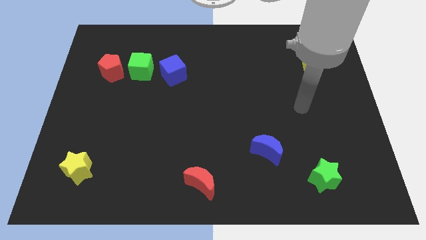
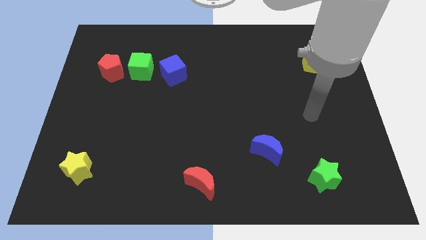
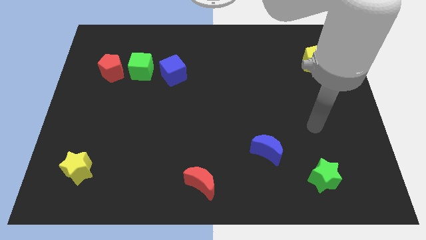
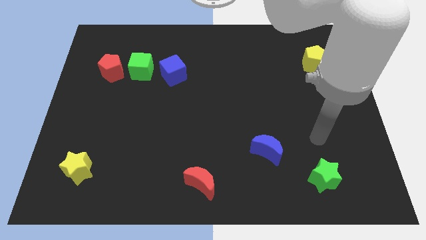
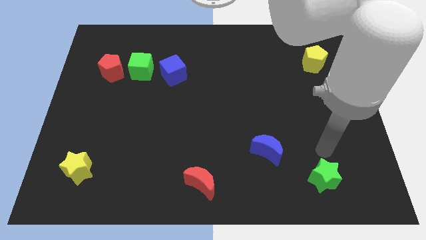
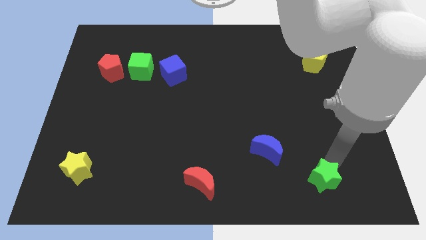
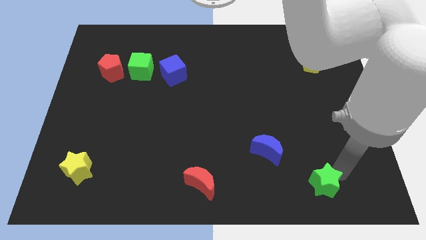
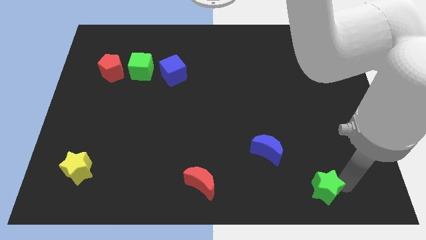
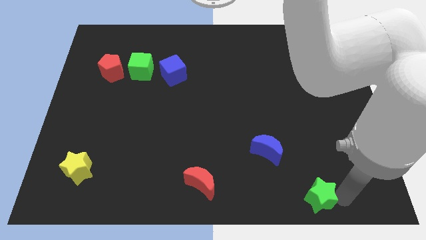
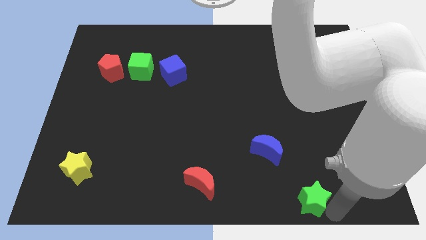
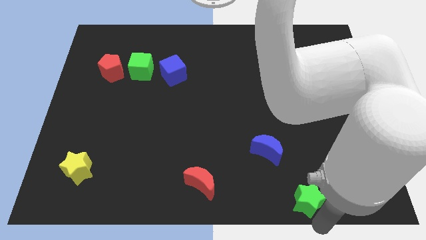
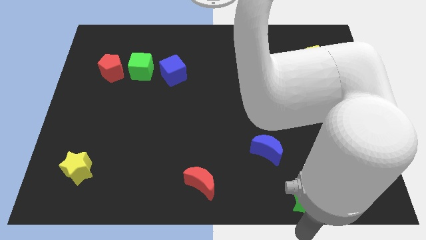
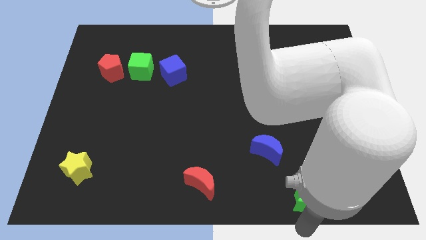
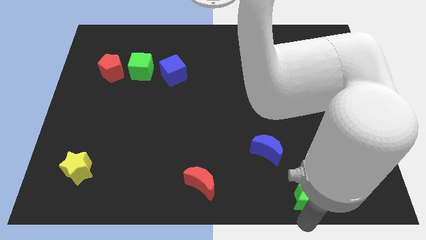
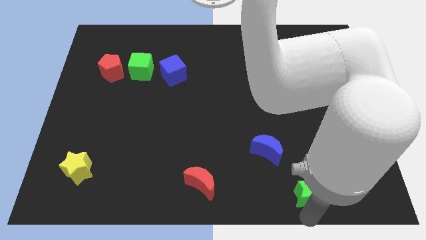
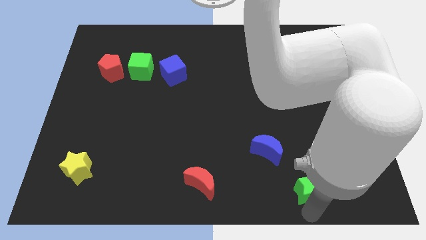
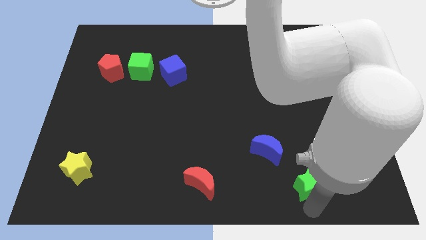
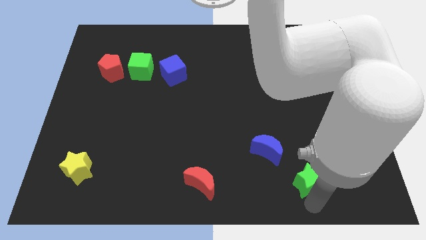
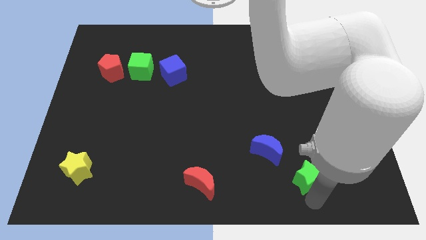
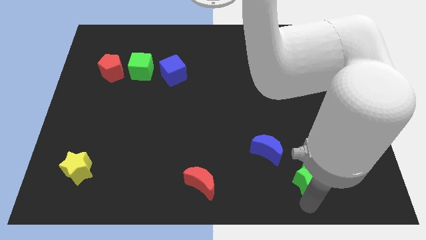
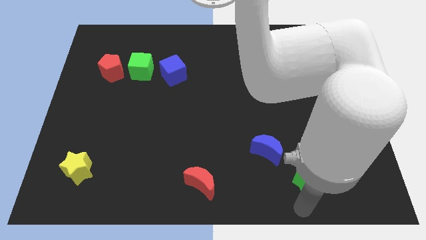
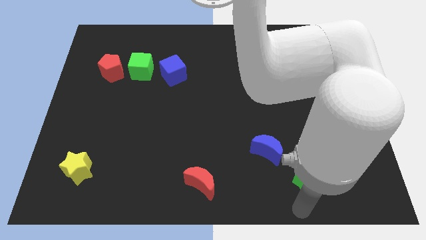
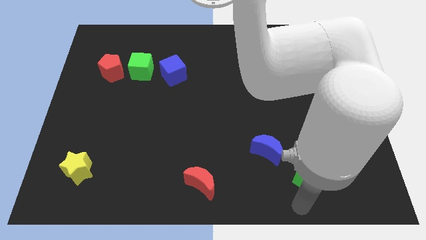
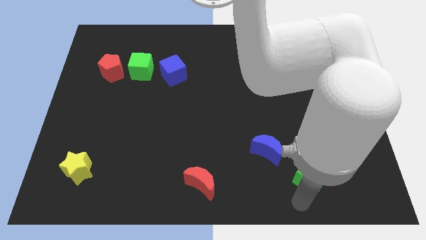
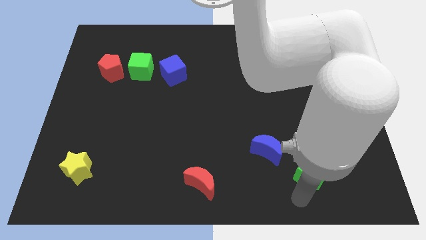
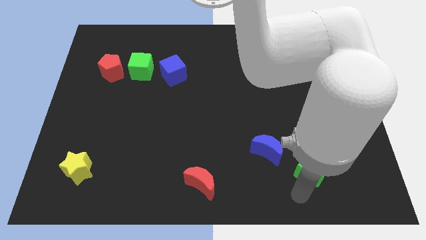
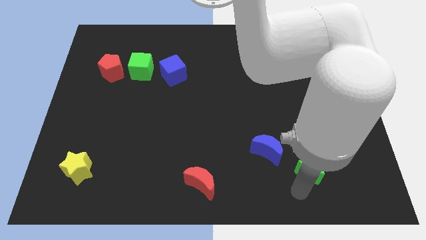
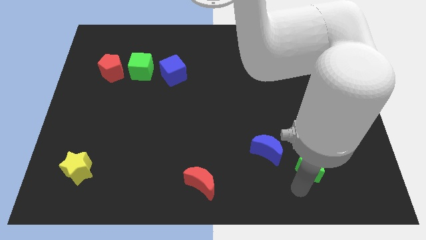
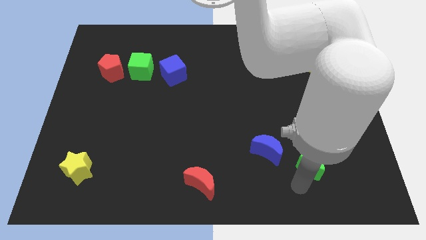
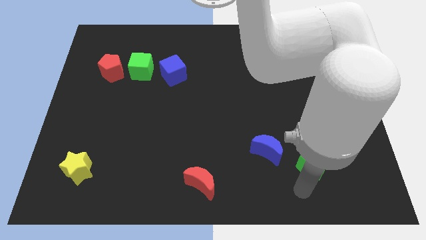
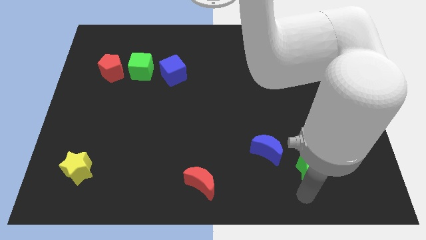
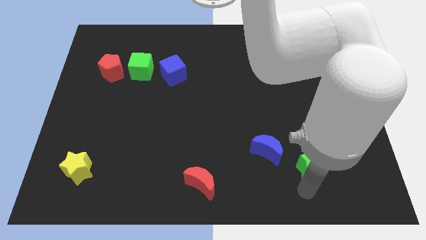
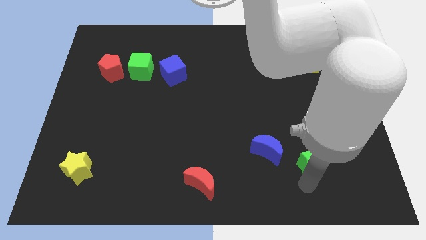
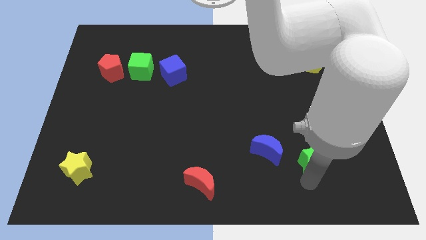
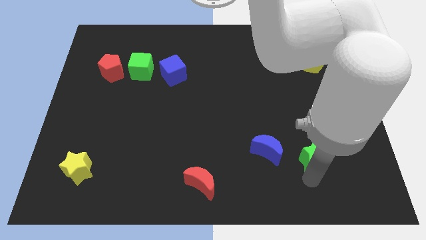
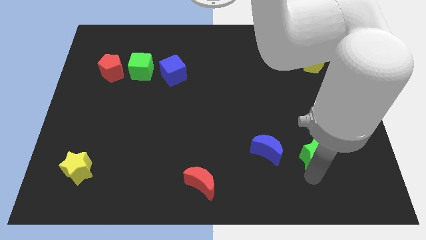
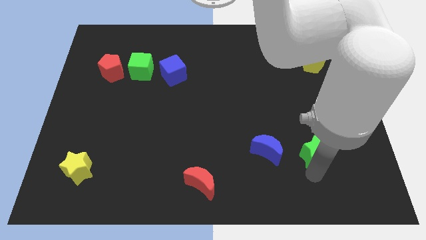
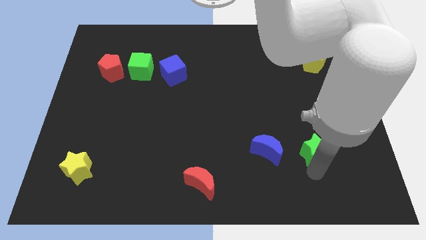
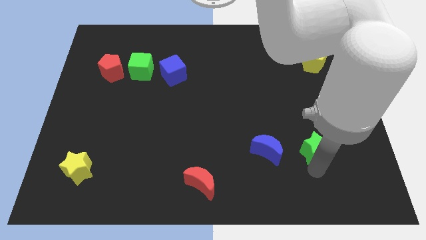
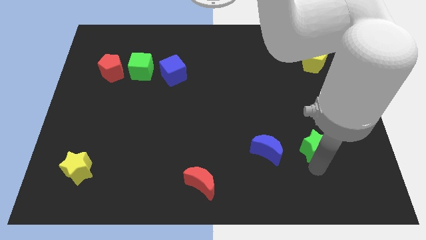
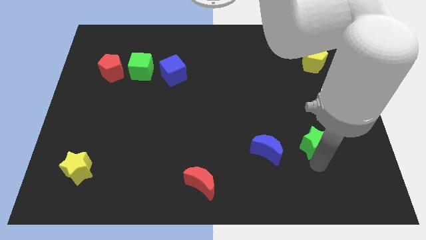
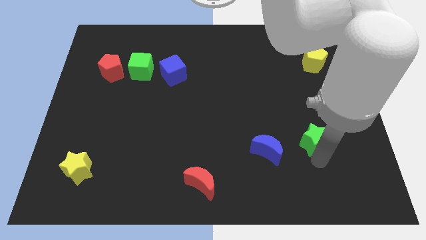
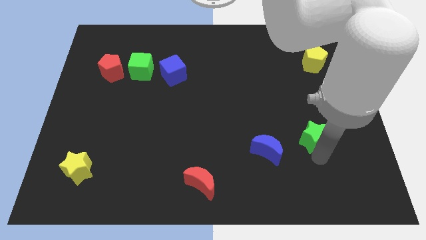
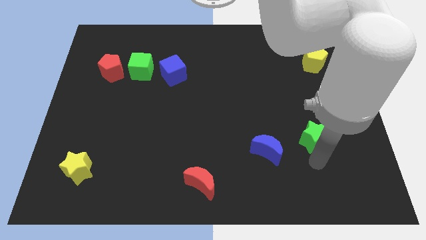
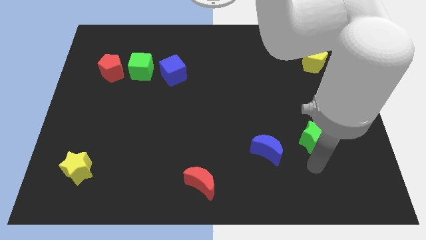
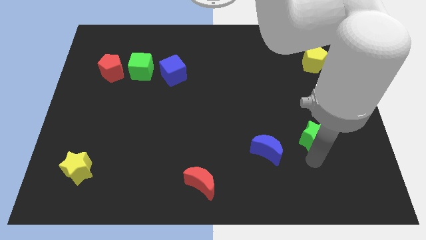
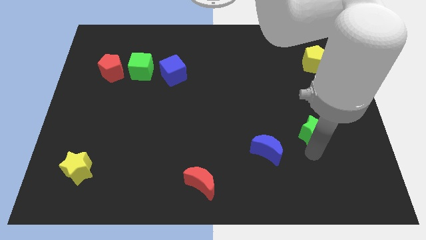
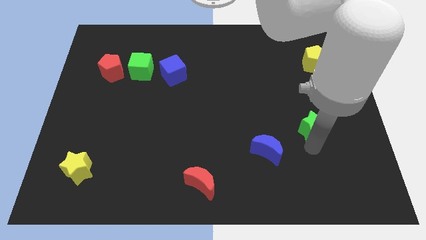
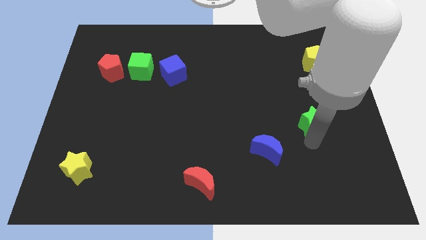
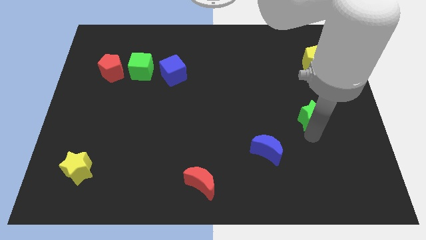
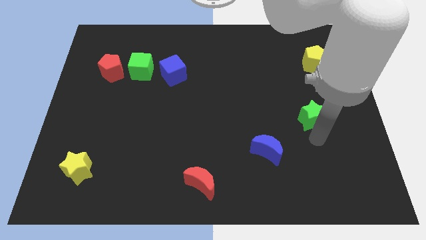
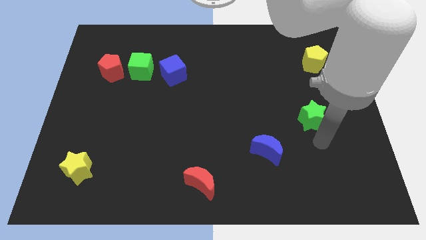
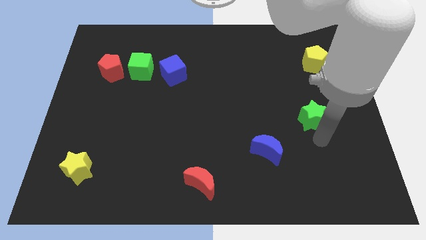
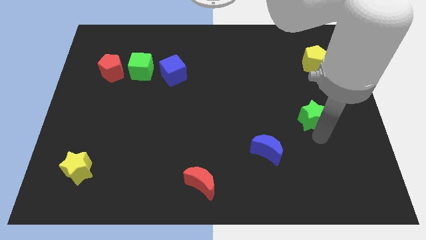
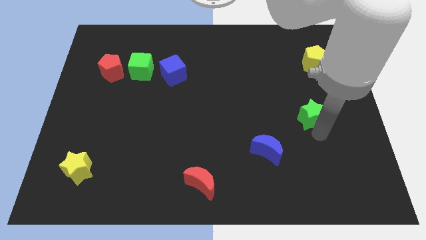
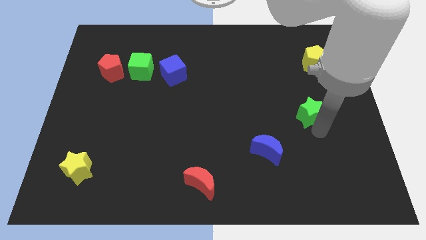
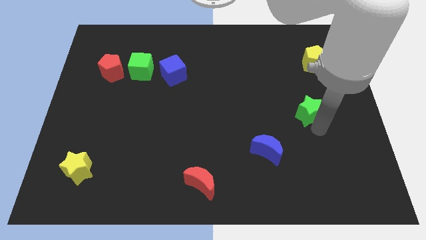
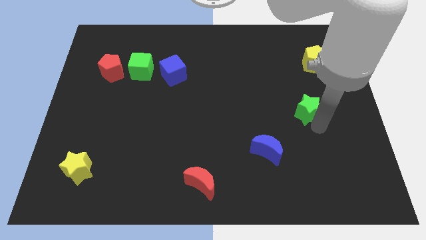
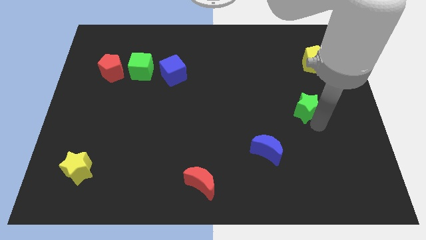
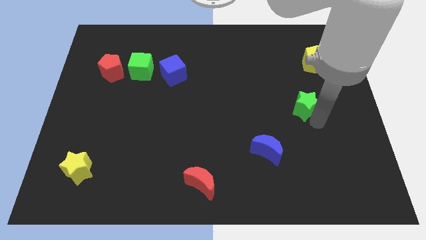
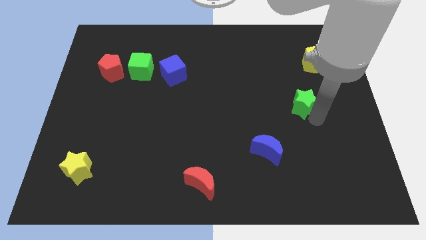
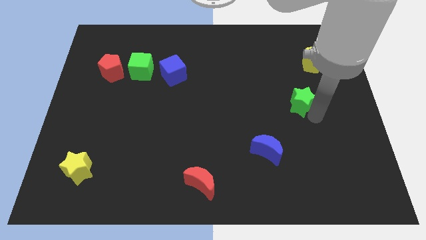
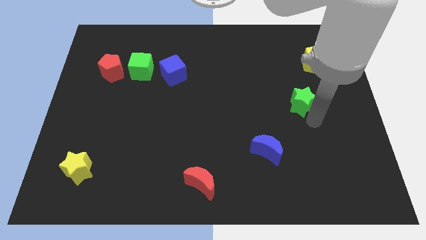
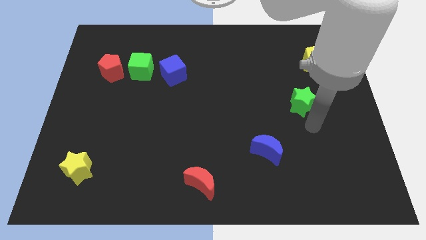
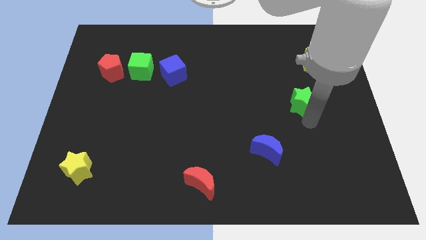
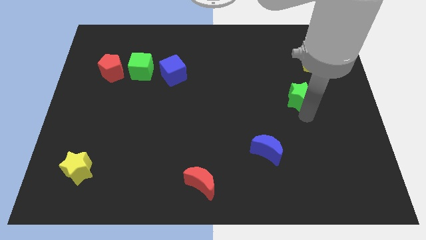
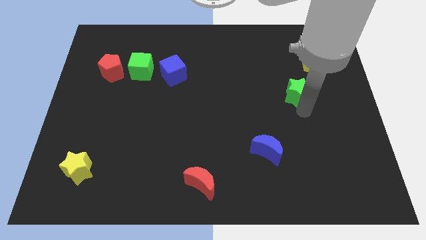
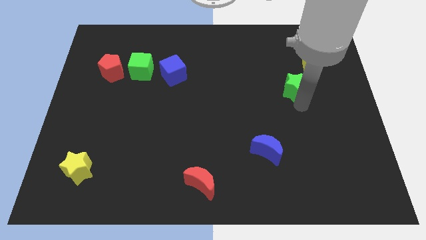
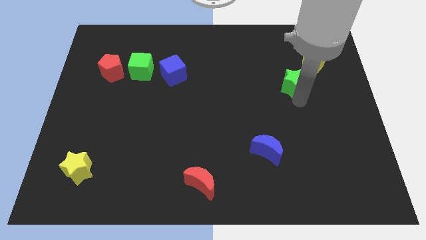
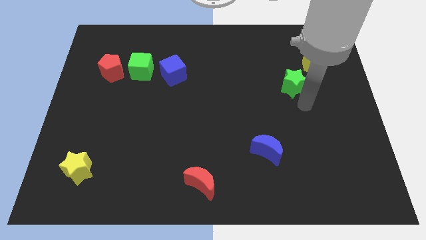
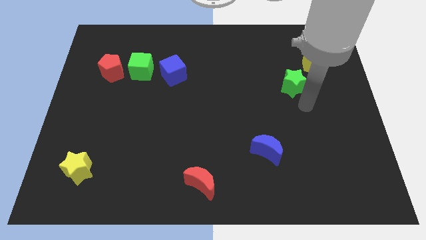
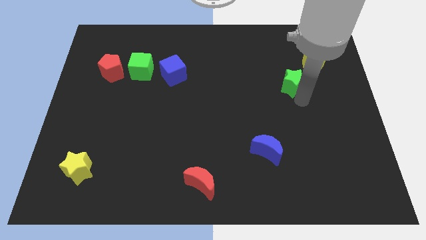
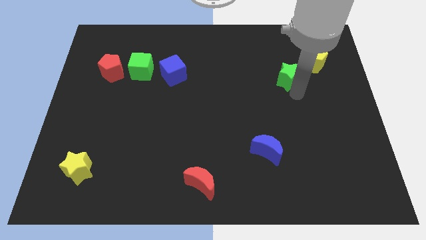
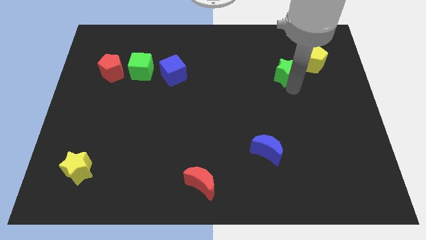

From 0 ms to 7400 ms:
slide the green star just left of the yellow pentagon
